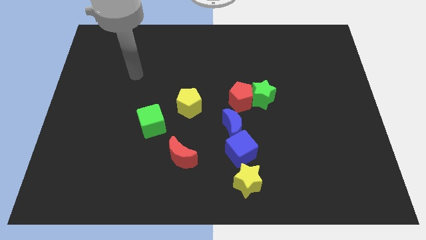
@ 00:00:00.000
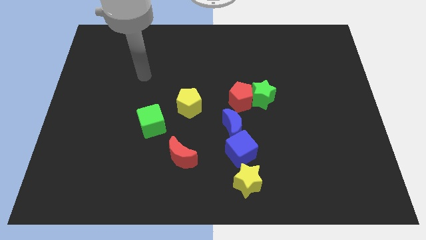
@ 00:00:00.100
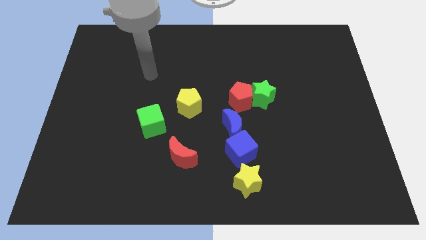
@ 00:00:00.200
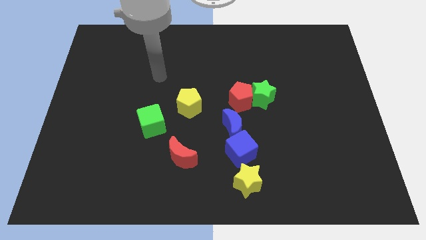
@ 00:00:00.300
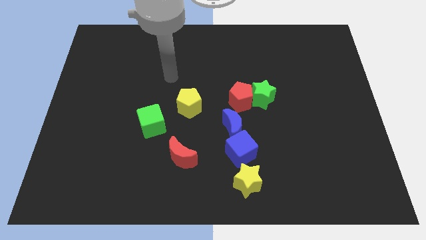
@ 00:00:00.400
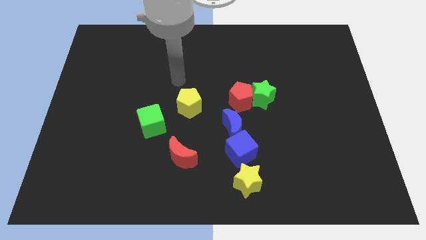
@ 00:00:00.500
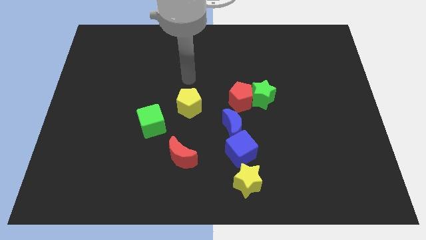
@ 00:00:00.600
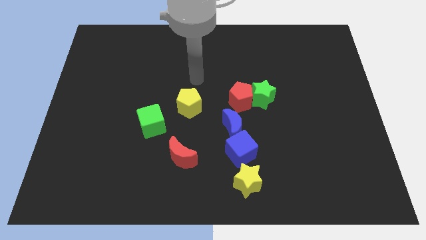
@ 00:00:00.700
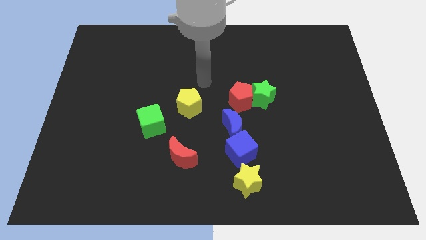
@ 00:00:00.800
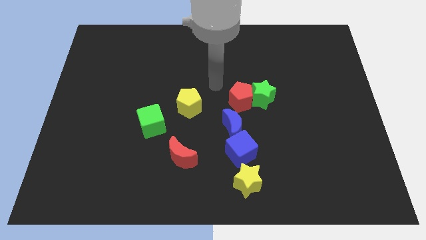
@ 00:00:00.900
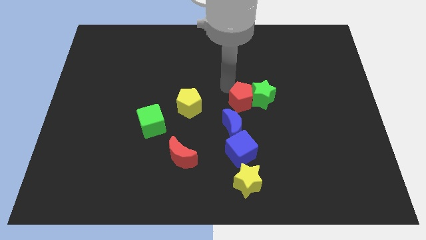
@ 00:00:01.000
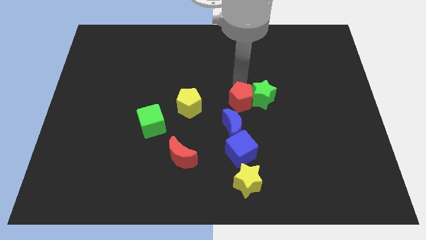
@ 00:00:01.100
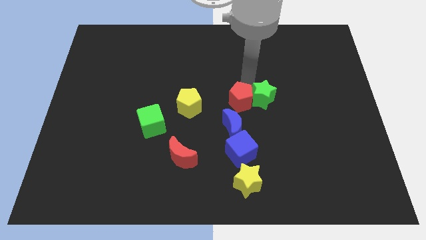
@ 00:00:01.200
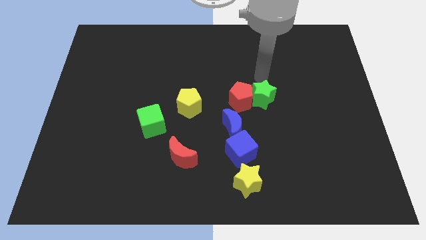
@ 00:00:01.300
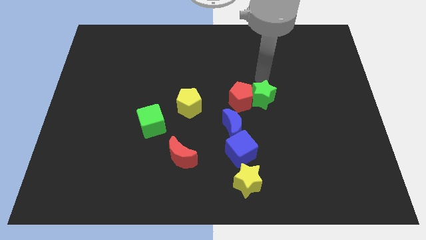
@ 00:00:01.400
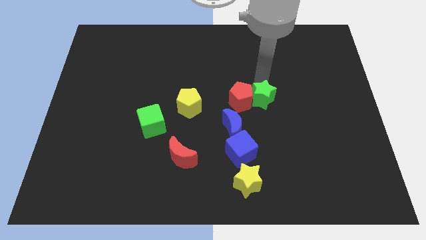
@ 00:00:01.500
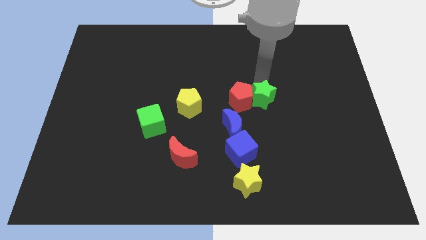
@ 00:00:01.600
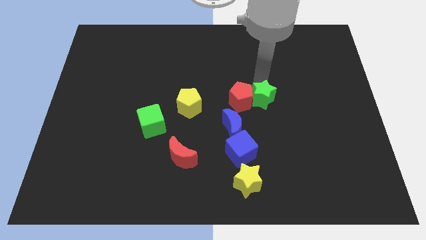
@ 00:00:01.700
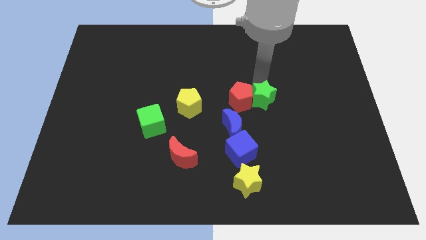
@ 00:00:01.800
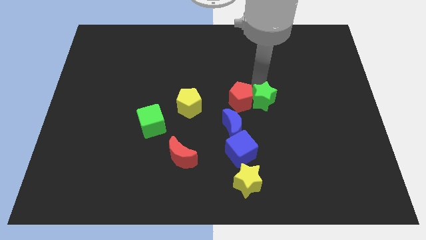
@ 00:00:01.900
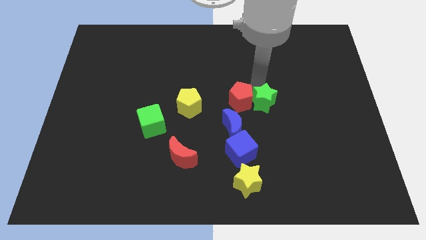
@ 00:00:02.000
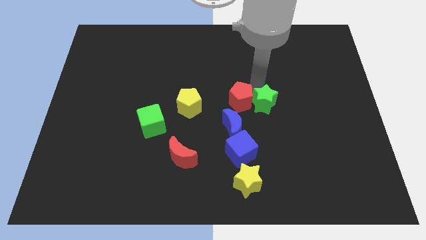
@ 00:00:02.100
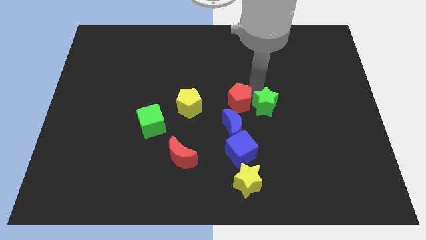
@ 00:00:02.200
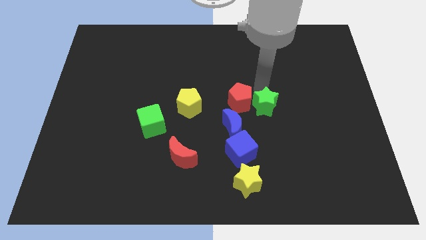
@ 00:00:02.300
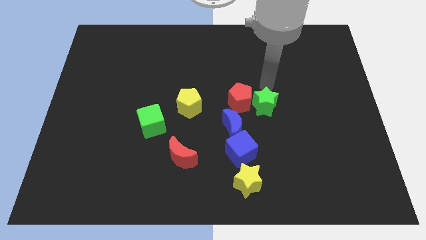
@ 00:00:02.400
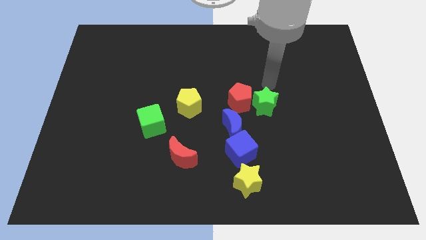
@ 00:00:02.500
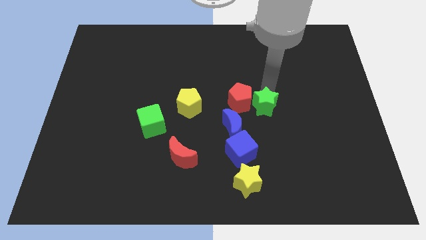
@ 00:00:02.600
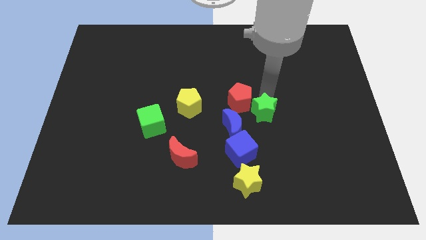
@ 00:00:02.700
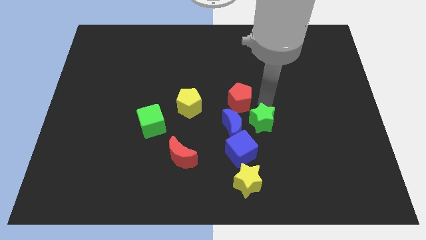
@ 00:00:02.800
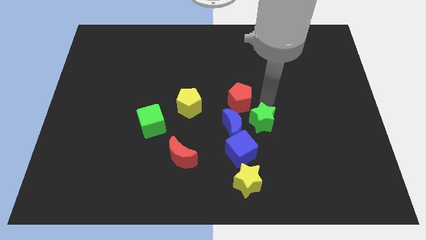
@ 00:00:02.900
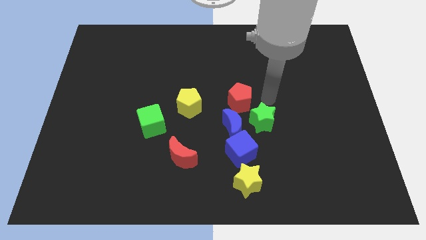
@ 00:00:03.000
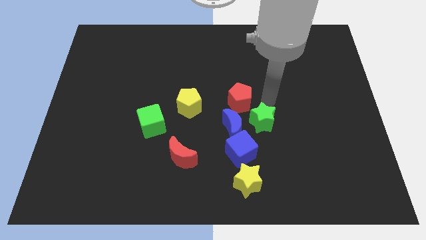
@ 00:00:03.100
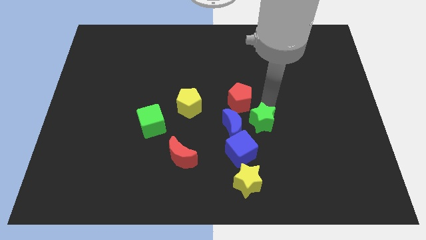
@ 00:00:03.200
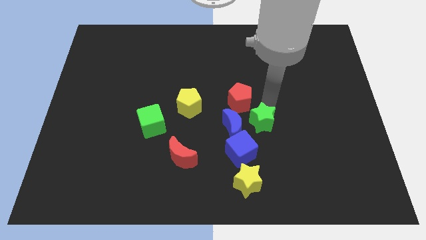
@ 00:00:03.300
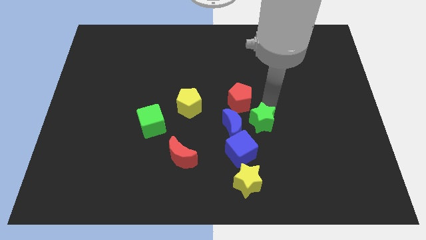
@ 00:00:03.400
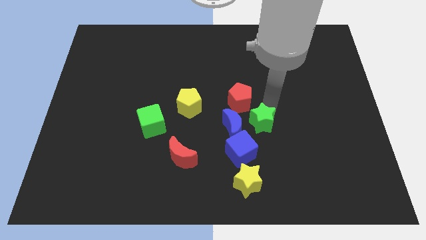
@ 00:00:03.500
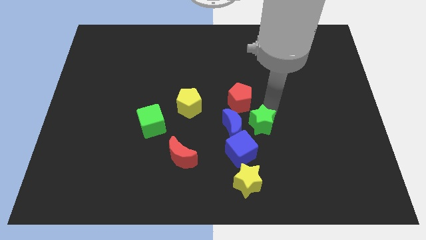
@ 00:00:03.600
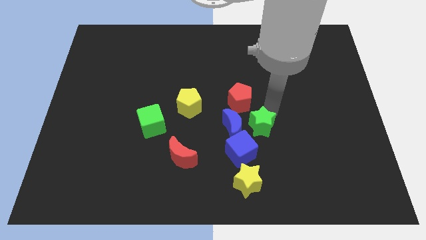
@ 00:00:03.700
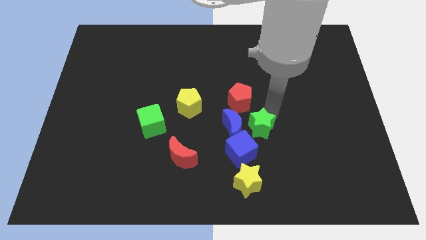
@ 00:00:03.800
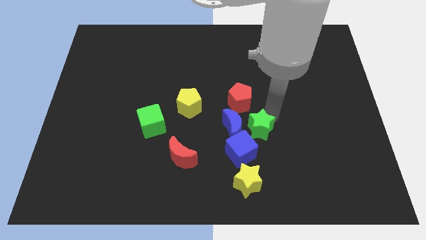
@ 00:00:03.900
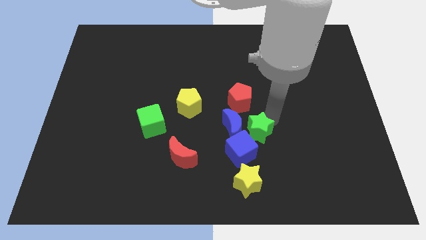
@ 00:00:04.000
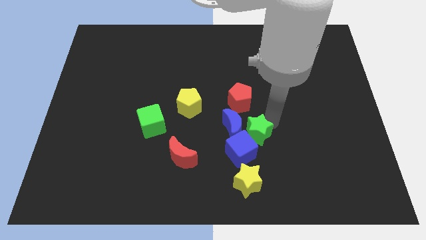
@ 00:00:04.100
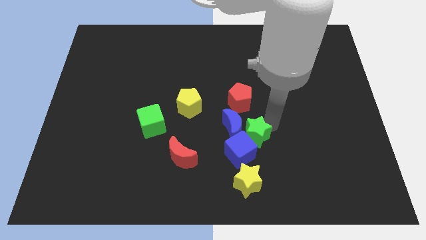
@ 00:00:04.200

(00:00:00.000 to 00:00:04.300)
move the green star to the blue cube

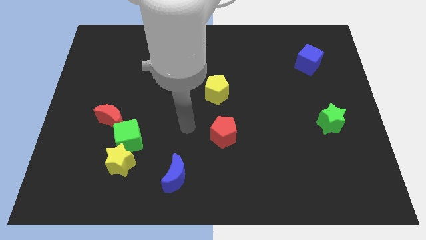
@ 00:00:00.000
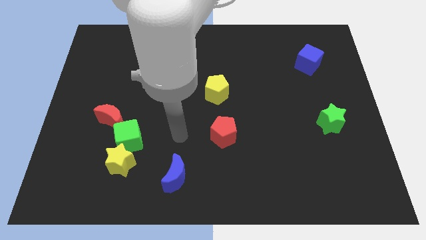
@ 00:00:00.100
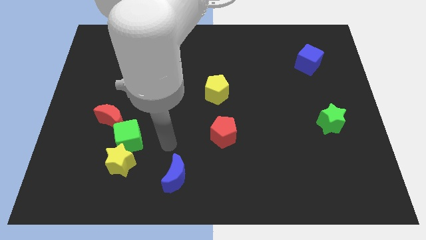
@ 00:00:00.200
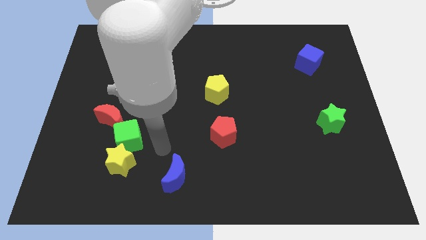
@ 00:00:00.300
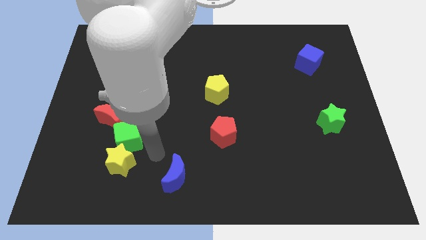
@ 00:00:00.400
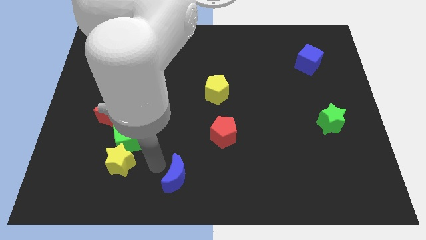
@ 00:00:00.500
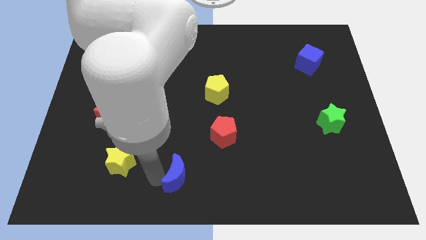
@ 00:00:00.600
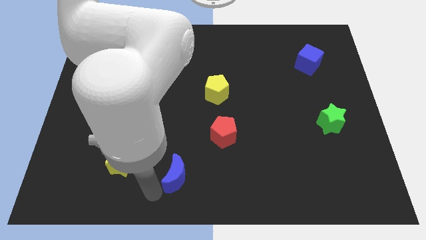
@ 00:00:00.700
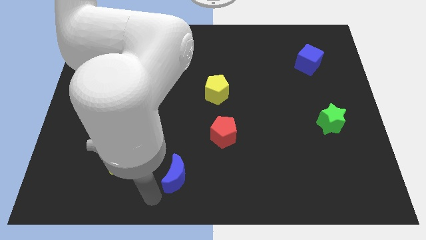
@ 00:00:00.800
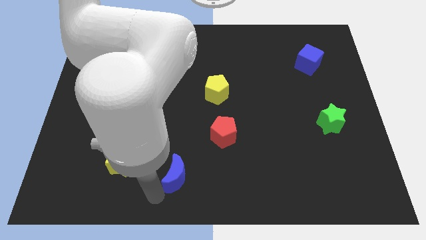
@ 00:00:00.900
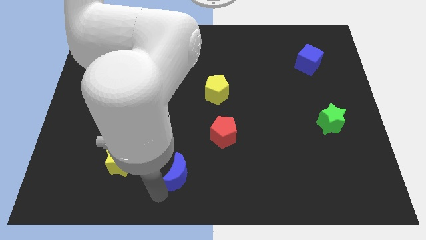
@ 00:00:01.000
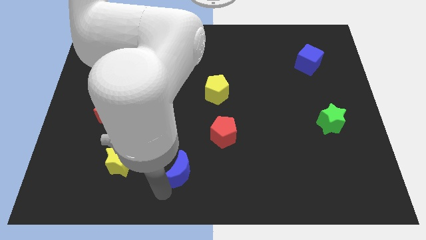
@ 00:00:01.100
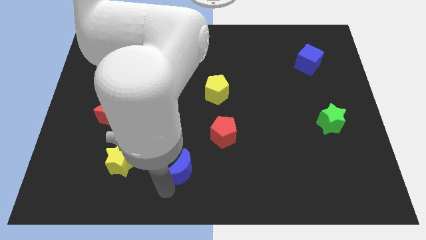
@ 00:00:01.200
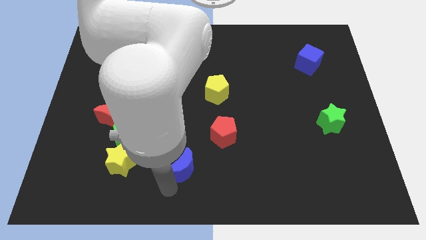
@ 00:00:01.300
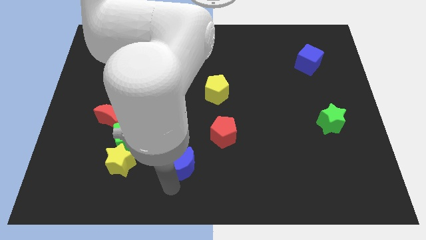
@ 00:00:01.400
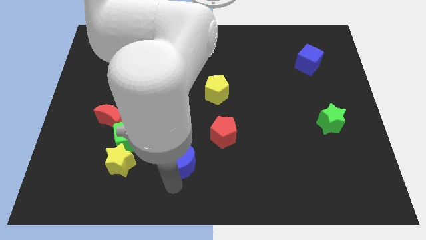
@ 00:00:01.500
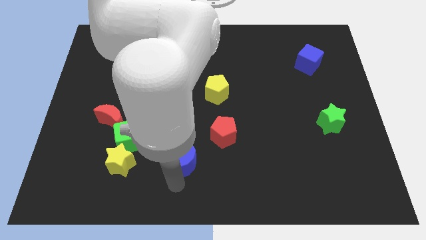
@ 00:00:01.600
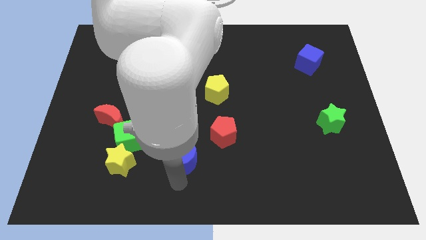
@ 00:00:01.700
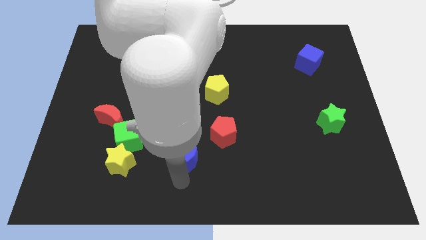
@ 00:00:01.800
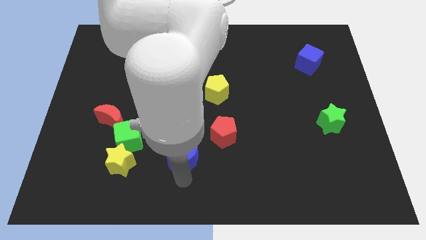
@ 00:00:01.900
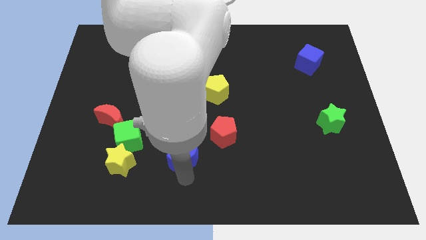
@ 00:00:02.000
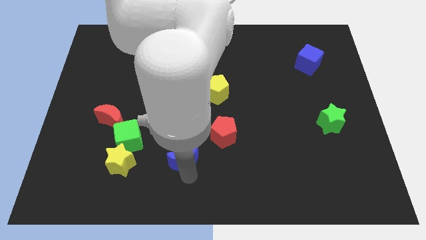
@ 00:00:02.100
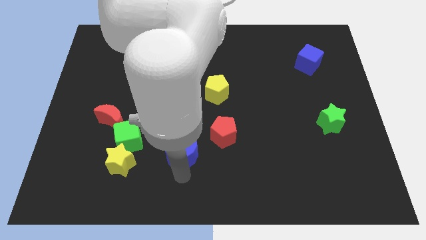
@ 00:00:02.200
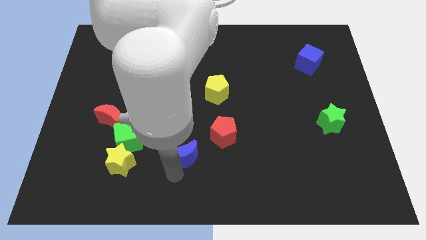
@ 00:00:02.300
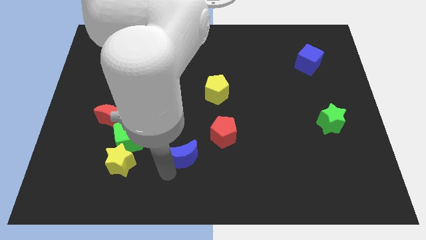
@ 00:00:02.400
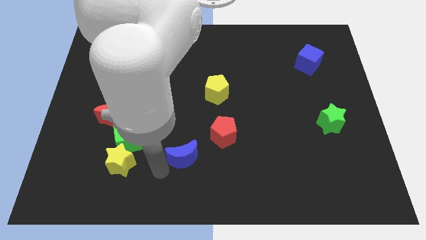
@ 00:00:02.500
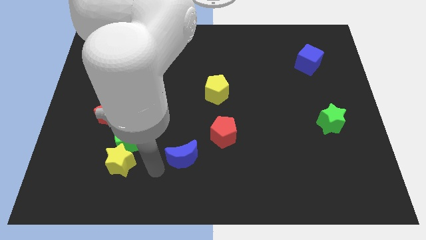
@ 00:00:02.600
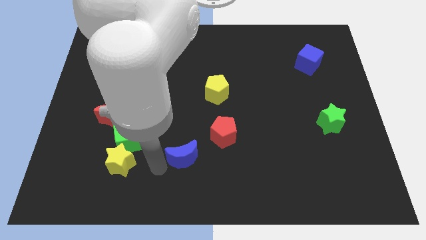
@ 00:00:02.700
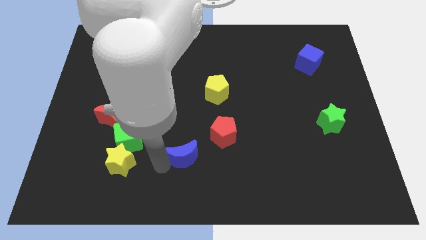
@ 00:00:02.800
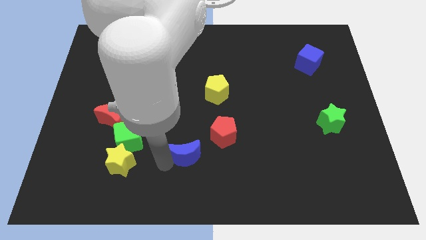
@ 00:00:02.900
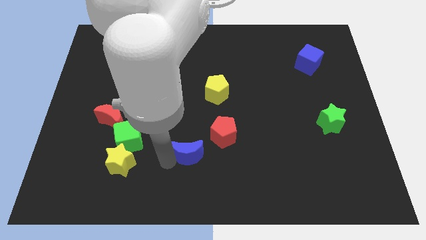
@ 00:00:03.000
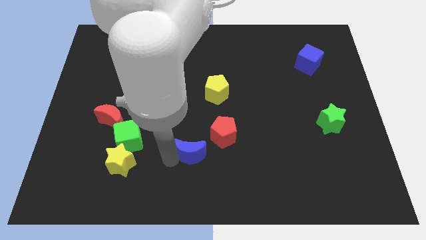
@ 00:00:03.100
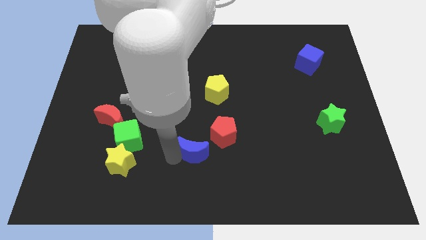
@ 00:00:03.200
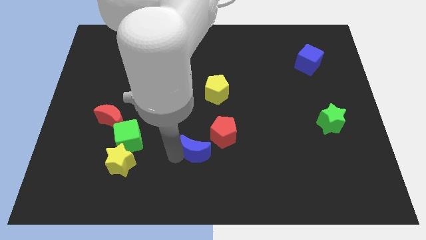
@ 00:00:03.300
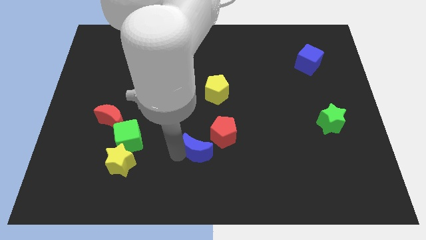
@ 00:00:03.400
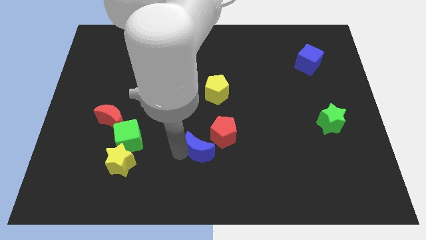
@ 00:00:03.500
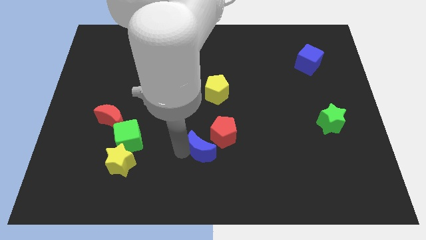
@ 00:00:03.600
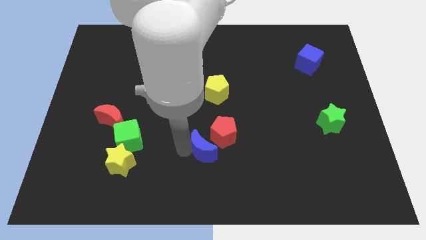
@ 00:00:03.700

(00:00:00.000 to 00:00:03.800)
move the blue moon close to the red pentagon
